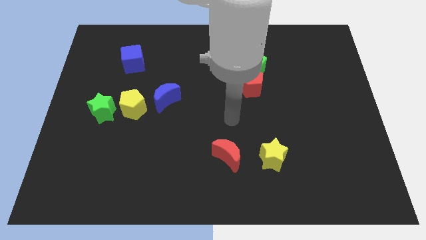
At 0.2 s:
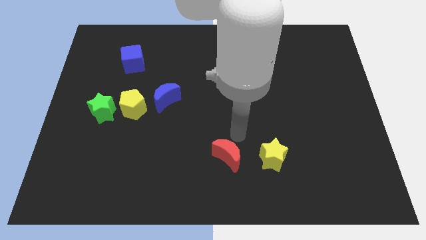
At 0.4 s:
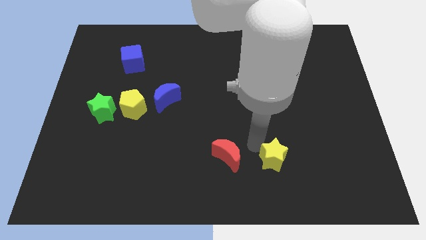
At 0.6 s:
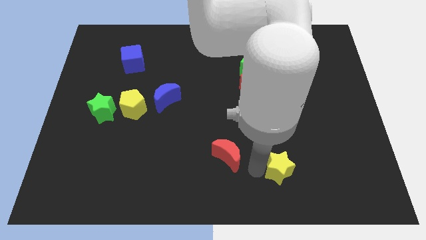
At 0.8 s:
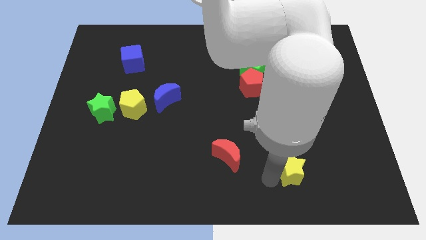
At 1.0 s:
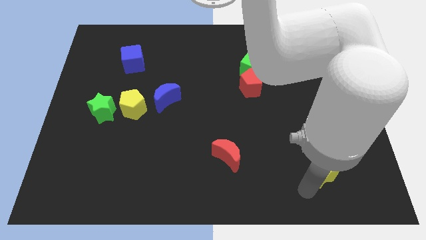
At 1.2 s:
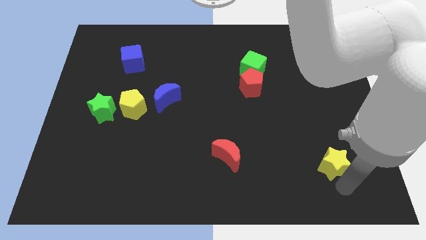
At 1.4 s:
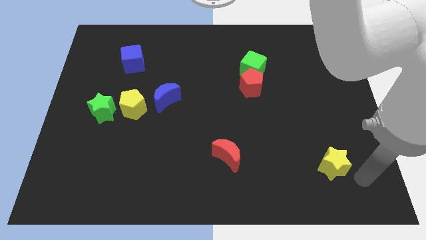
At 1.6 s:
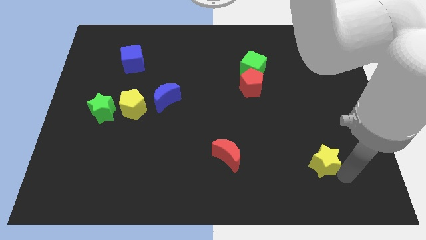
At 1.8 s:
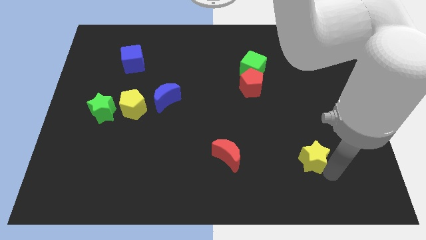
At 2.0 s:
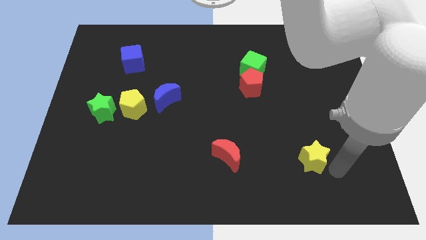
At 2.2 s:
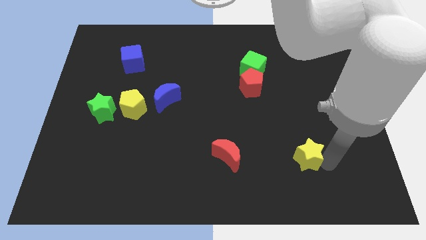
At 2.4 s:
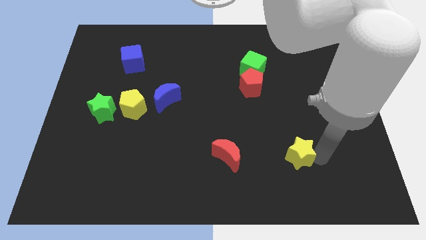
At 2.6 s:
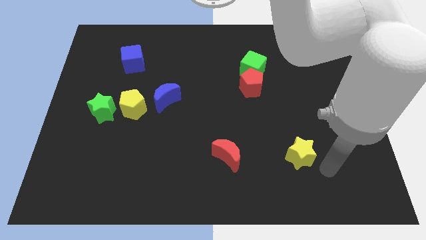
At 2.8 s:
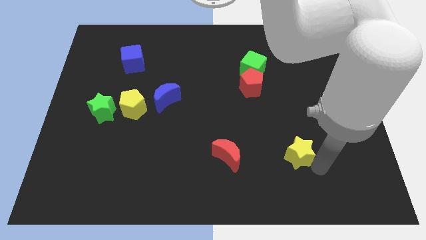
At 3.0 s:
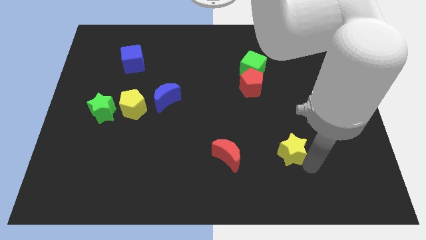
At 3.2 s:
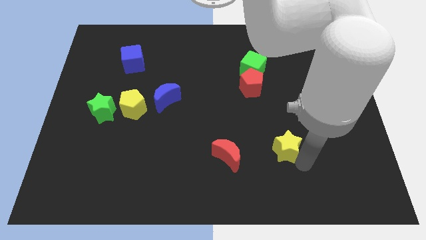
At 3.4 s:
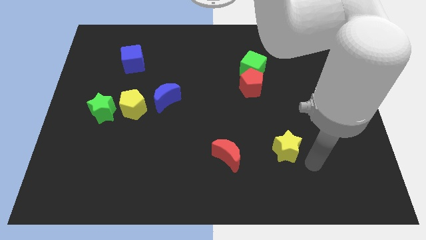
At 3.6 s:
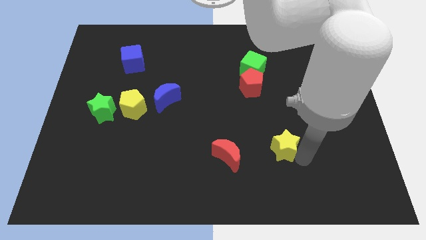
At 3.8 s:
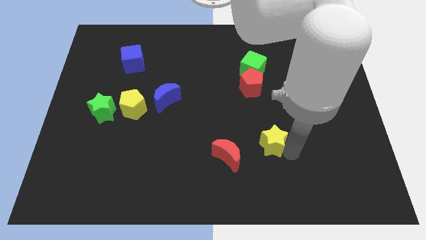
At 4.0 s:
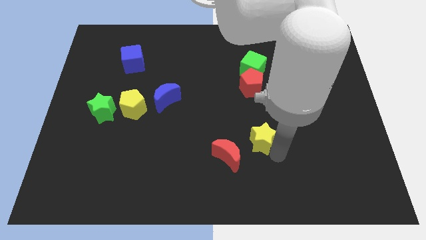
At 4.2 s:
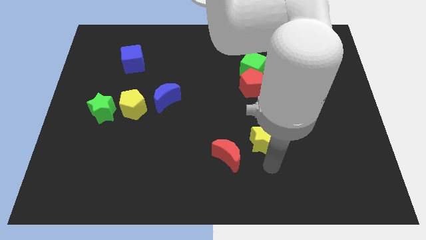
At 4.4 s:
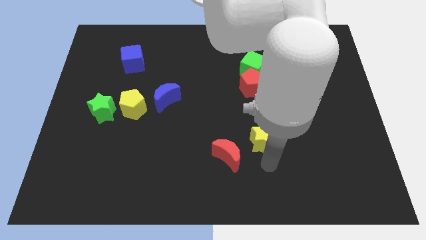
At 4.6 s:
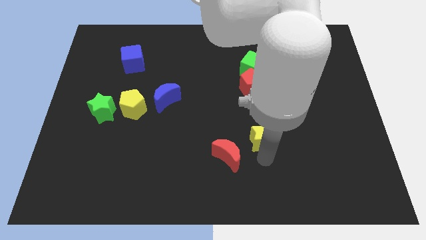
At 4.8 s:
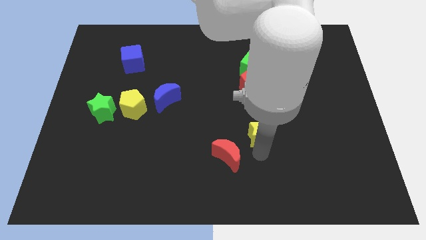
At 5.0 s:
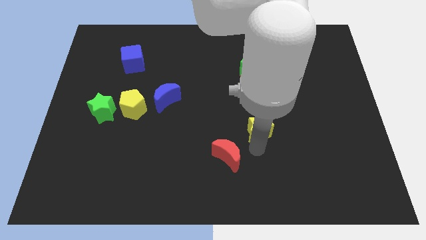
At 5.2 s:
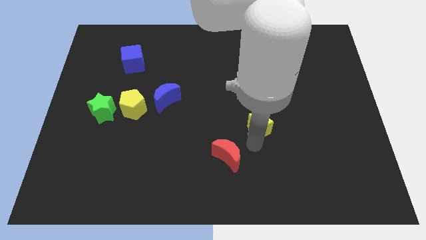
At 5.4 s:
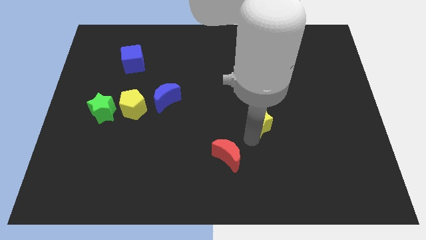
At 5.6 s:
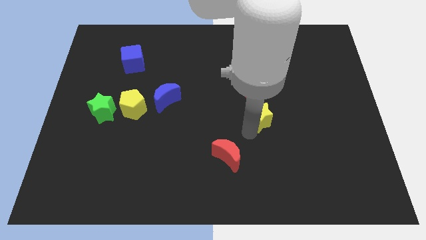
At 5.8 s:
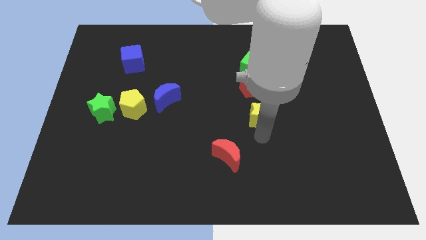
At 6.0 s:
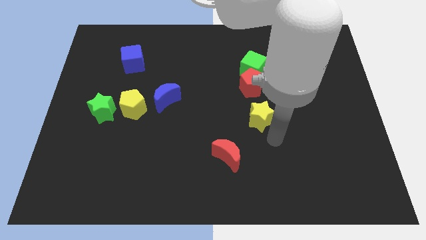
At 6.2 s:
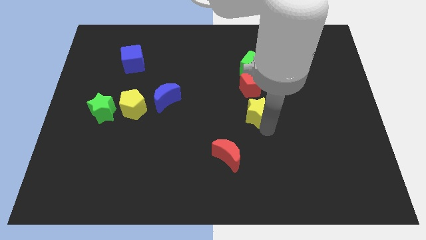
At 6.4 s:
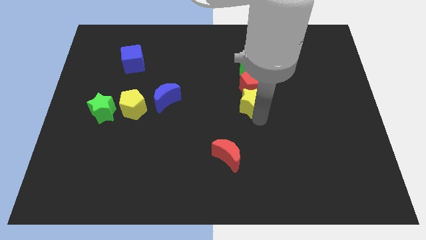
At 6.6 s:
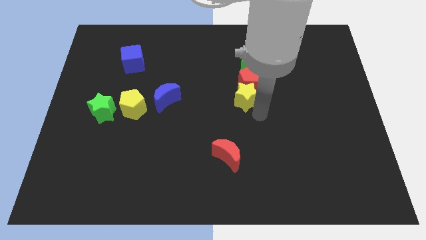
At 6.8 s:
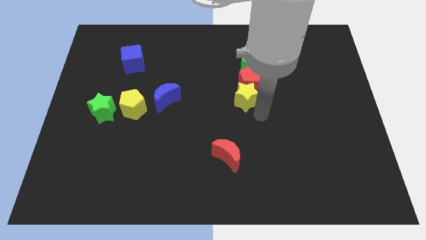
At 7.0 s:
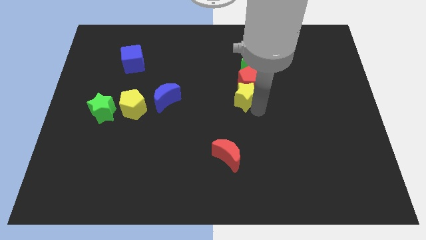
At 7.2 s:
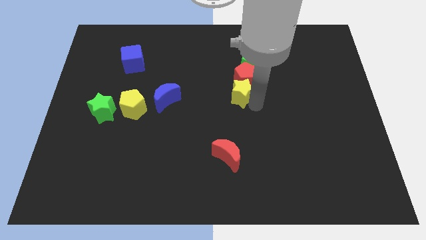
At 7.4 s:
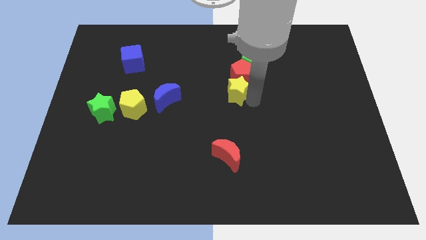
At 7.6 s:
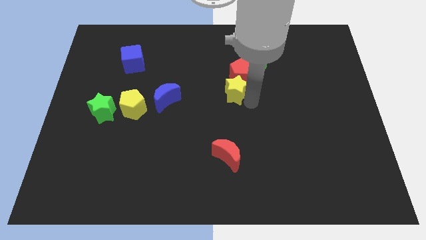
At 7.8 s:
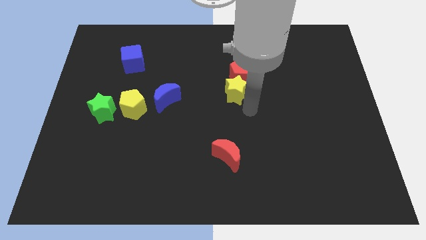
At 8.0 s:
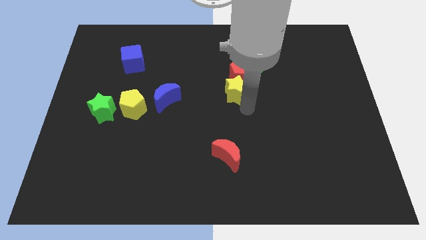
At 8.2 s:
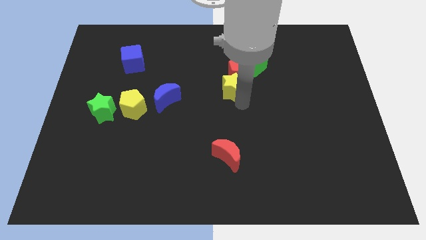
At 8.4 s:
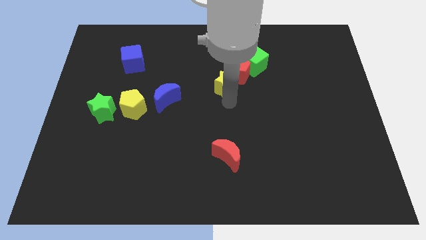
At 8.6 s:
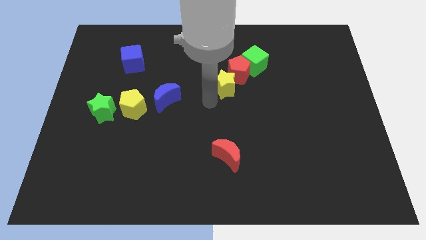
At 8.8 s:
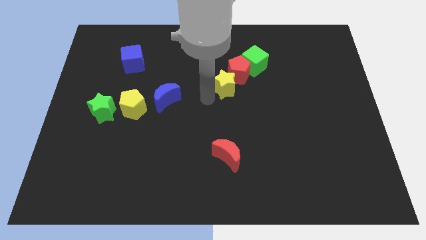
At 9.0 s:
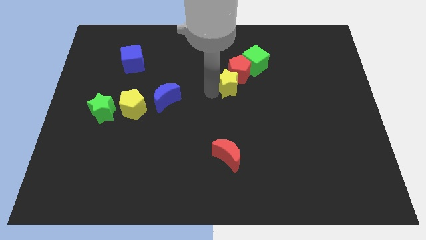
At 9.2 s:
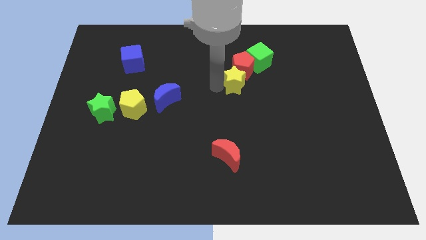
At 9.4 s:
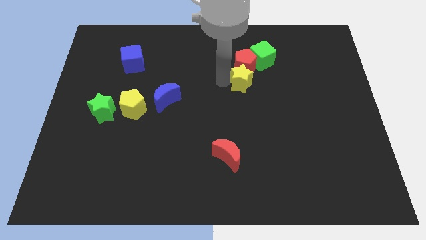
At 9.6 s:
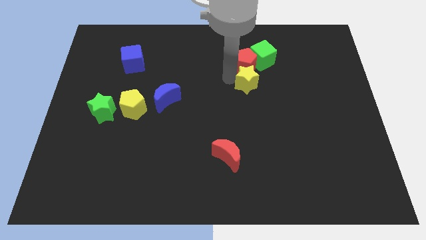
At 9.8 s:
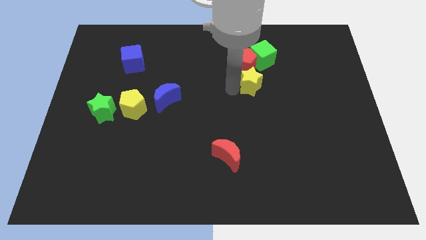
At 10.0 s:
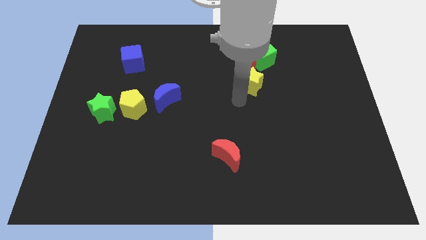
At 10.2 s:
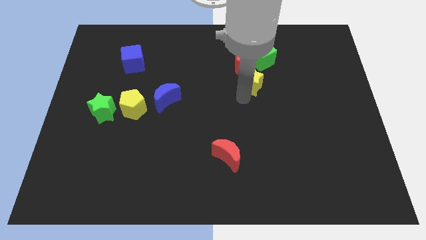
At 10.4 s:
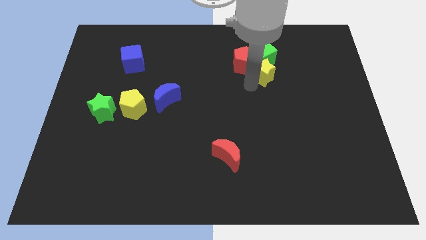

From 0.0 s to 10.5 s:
put the yellow star towards the green cube

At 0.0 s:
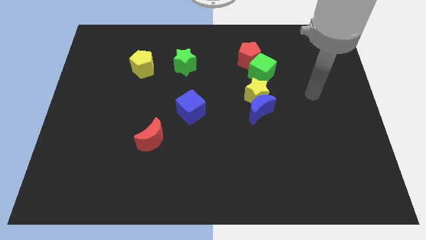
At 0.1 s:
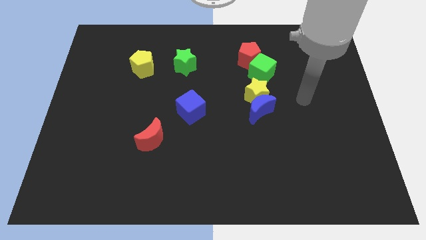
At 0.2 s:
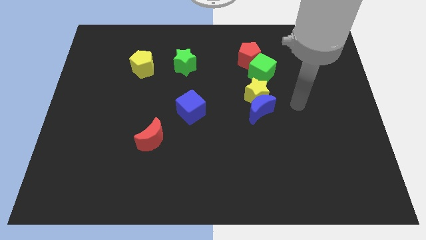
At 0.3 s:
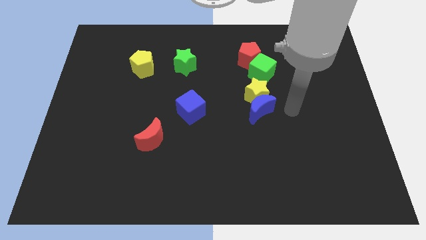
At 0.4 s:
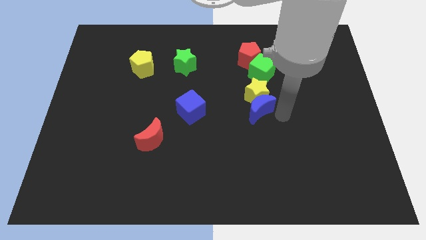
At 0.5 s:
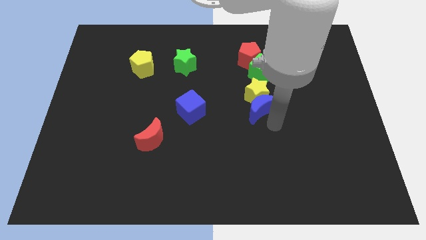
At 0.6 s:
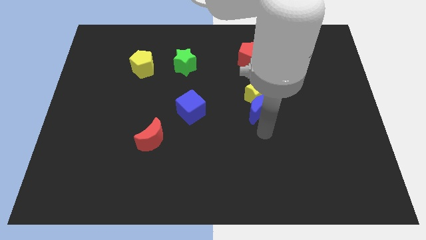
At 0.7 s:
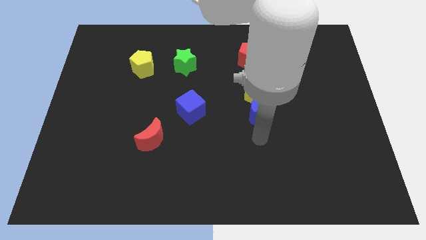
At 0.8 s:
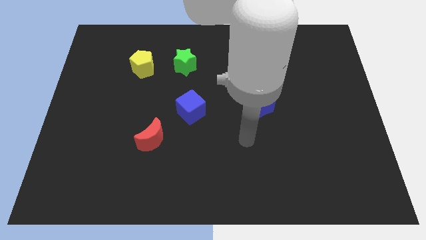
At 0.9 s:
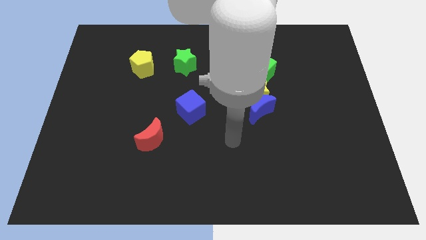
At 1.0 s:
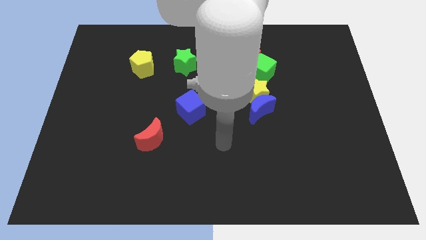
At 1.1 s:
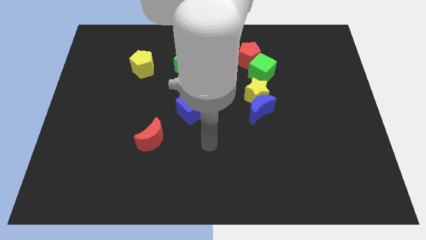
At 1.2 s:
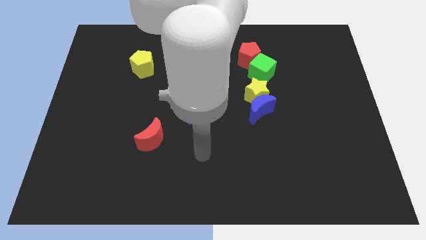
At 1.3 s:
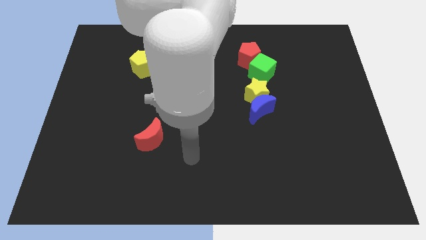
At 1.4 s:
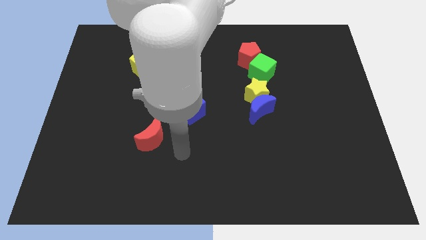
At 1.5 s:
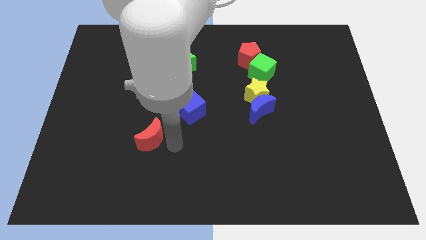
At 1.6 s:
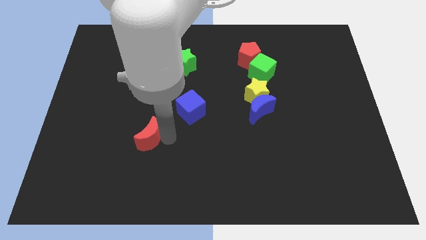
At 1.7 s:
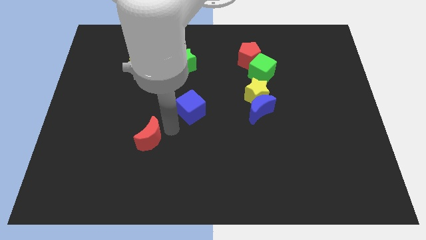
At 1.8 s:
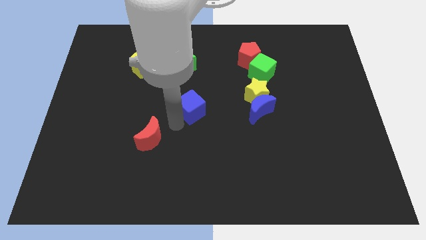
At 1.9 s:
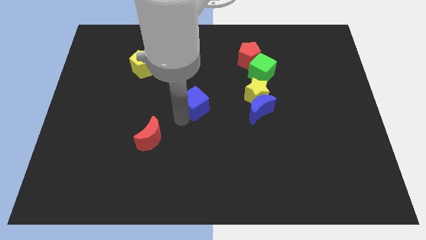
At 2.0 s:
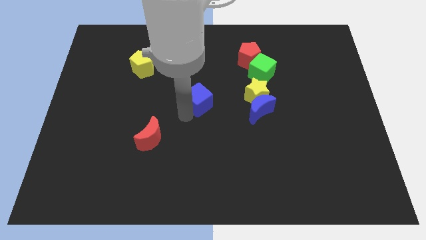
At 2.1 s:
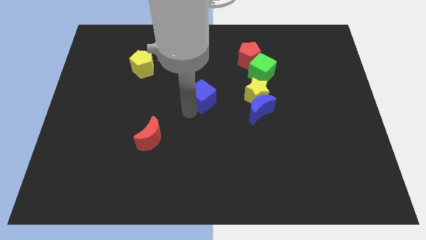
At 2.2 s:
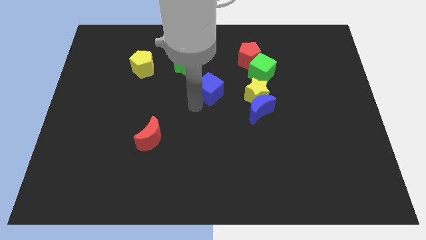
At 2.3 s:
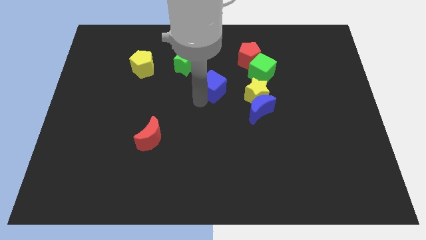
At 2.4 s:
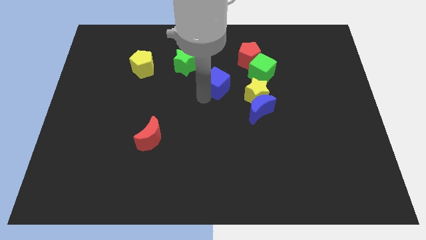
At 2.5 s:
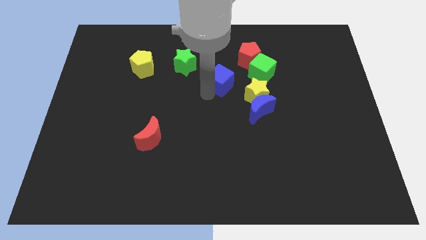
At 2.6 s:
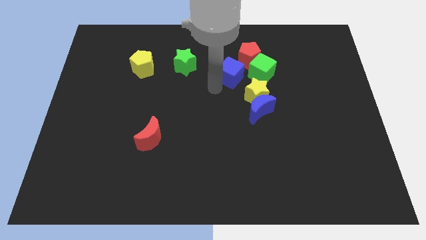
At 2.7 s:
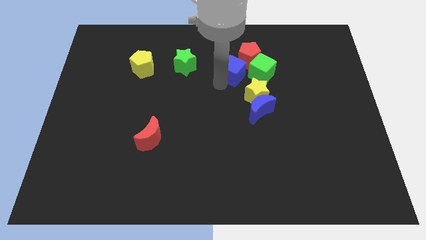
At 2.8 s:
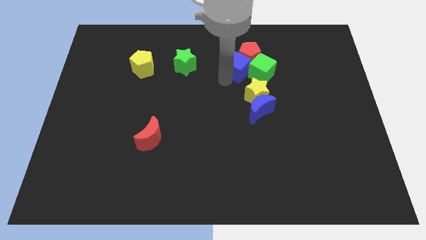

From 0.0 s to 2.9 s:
put the blue cube close to the red pentagon
